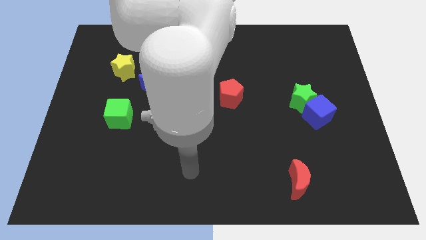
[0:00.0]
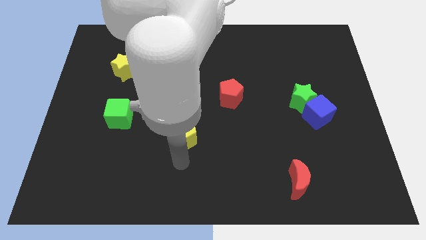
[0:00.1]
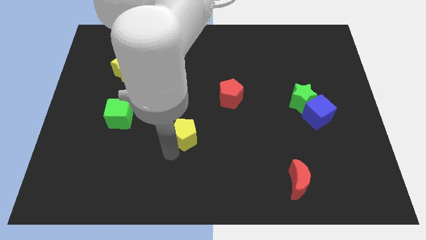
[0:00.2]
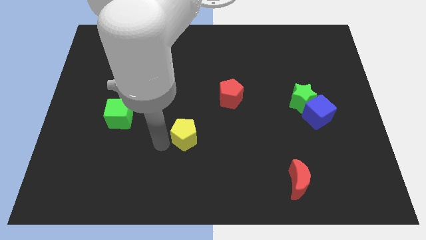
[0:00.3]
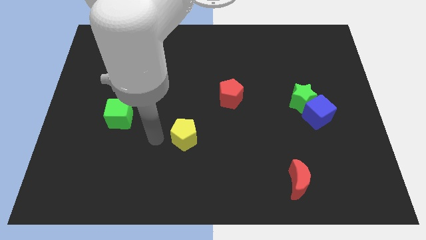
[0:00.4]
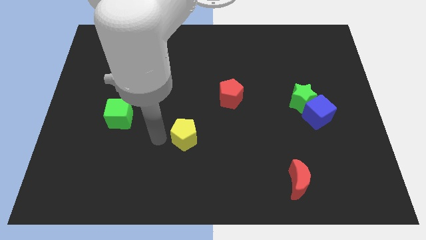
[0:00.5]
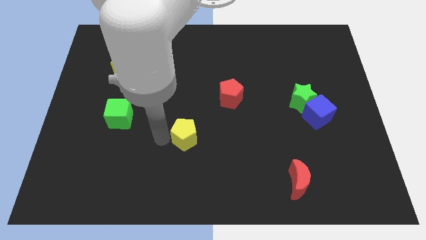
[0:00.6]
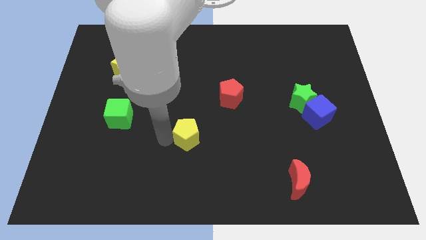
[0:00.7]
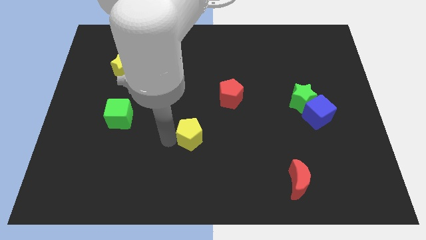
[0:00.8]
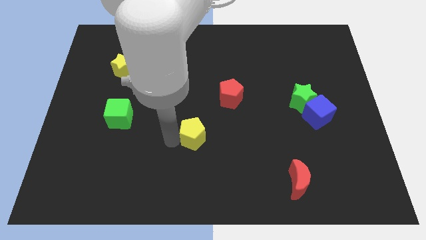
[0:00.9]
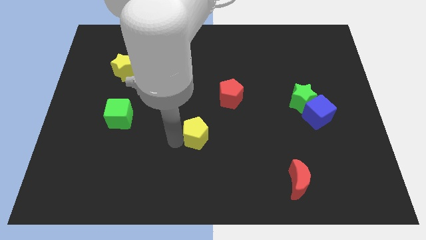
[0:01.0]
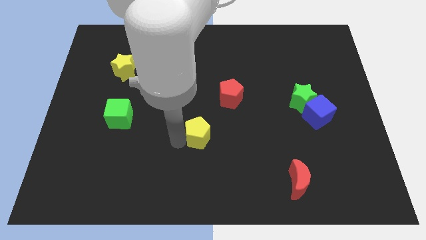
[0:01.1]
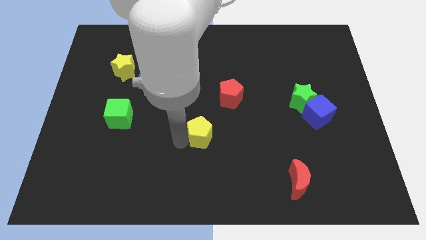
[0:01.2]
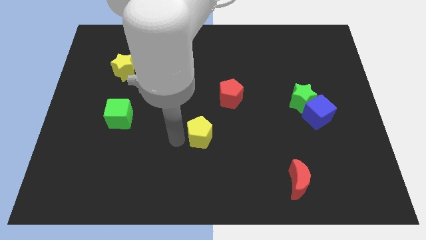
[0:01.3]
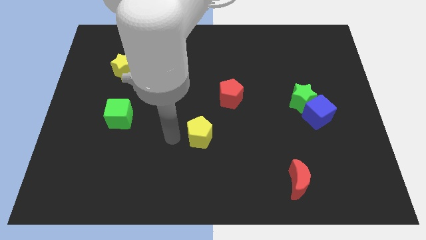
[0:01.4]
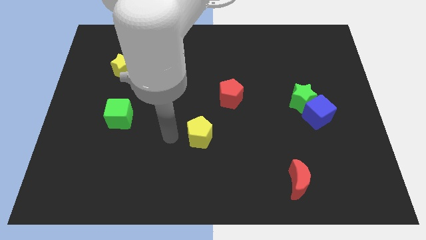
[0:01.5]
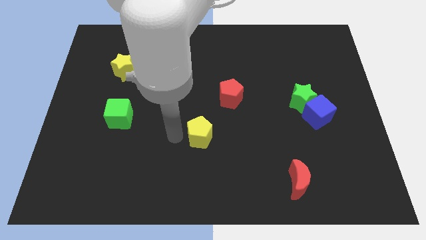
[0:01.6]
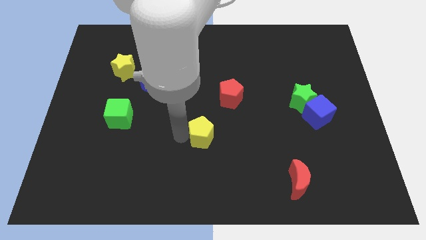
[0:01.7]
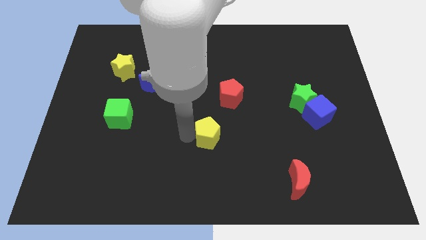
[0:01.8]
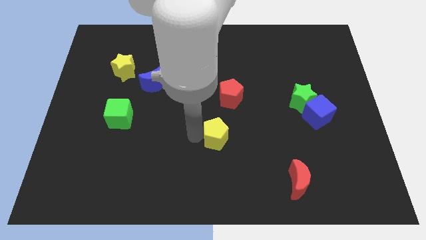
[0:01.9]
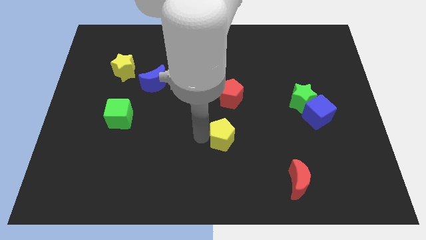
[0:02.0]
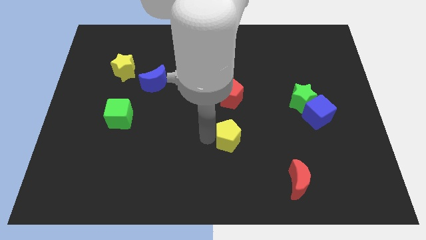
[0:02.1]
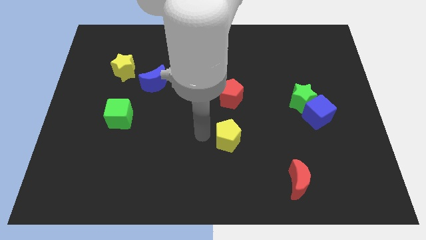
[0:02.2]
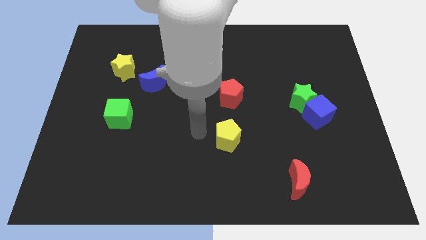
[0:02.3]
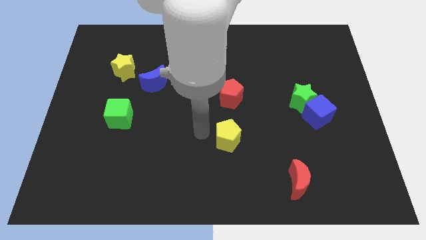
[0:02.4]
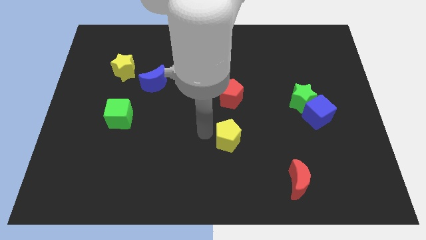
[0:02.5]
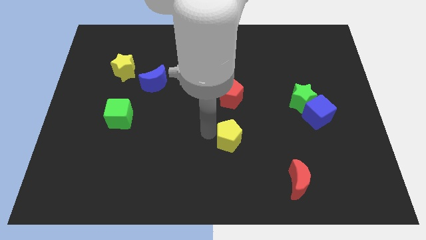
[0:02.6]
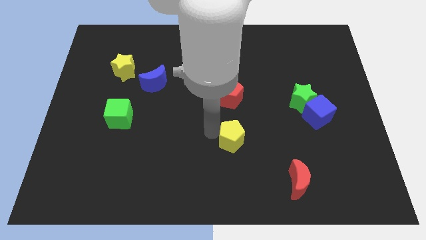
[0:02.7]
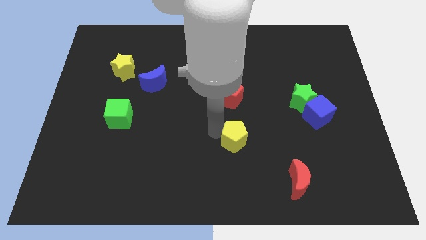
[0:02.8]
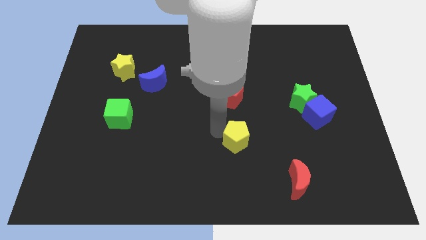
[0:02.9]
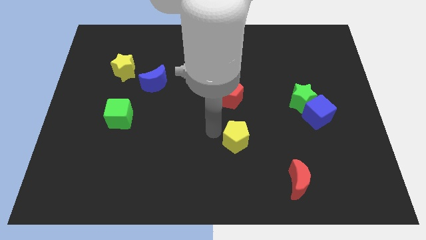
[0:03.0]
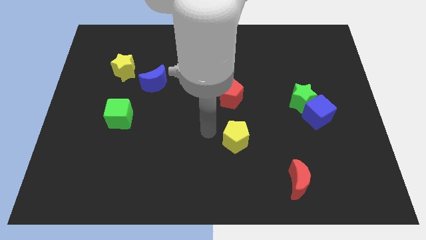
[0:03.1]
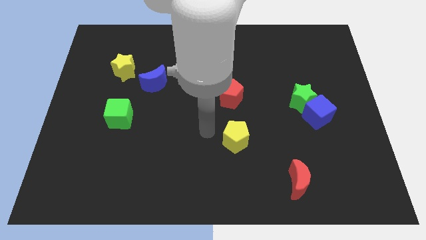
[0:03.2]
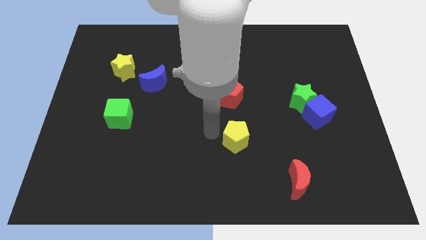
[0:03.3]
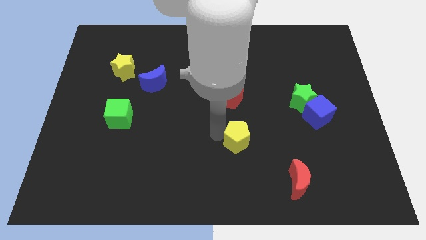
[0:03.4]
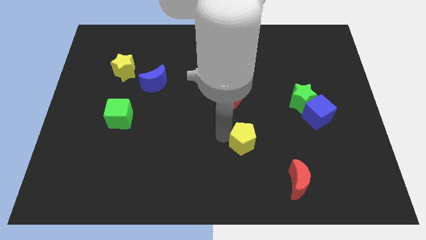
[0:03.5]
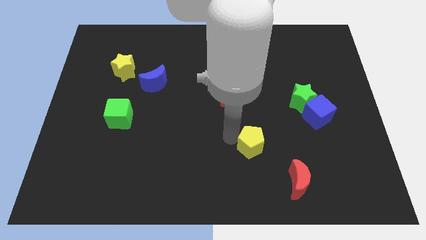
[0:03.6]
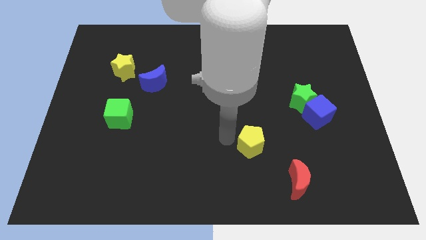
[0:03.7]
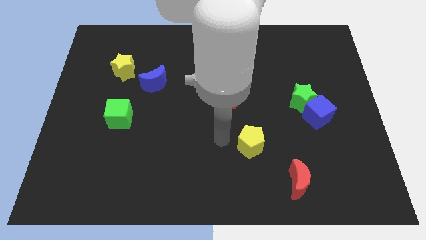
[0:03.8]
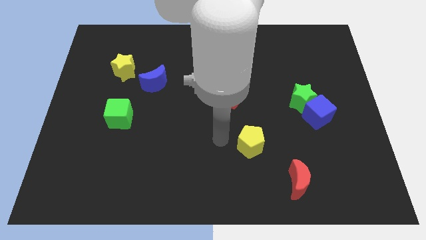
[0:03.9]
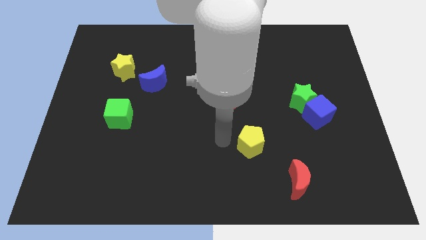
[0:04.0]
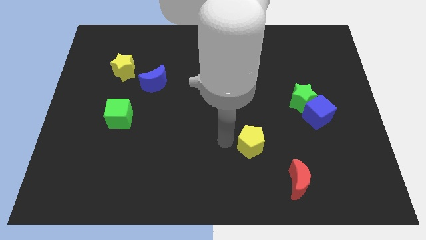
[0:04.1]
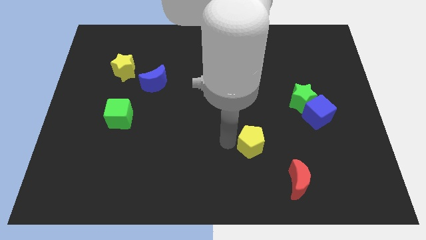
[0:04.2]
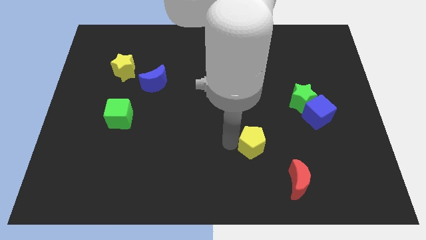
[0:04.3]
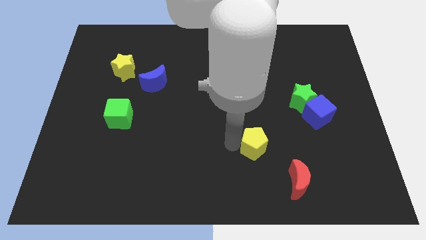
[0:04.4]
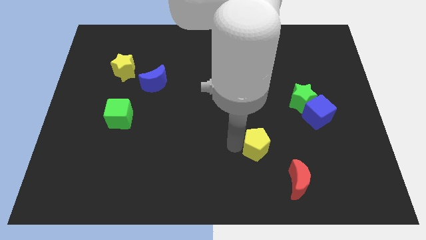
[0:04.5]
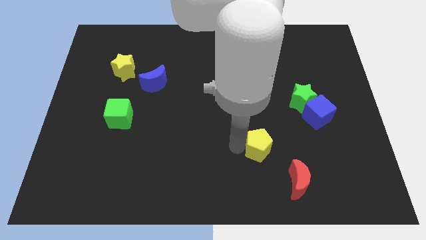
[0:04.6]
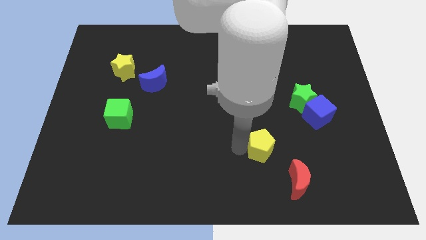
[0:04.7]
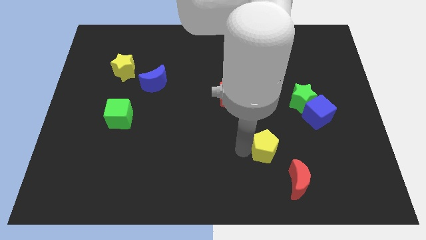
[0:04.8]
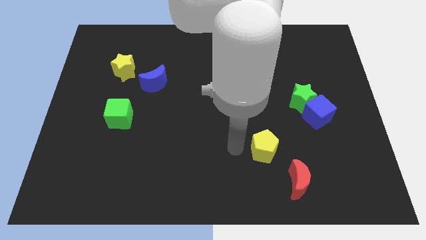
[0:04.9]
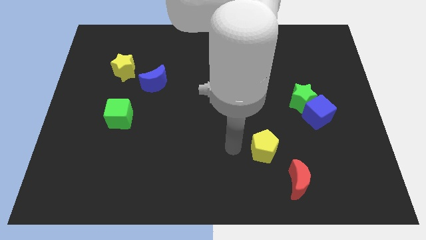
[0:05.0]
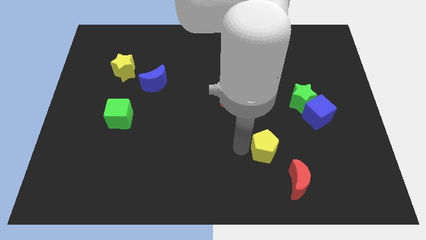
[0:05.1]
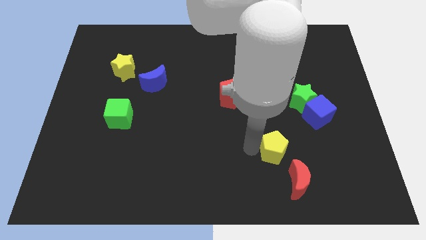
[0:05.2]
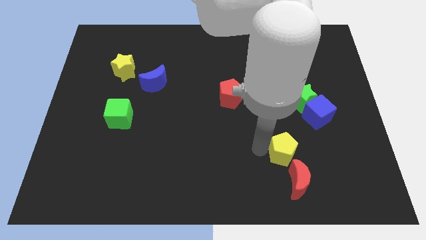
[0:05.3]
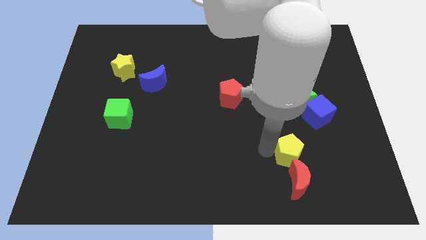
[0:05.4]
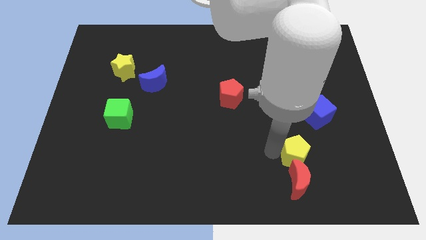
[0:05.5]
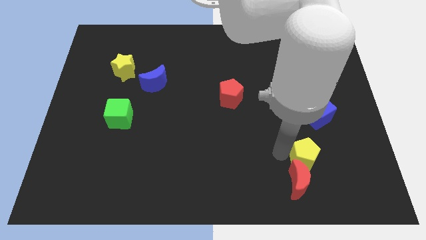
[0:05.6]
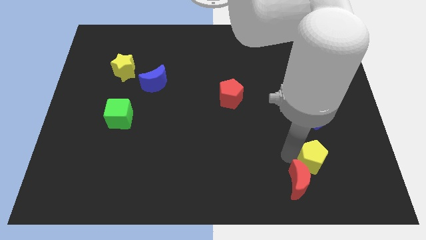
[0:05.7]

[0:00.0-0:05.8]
move the yellow pentagon below the blue cube

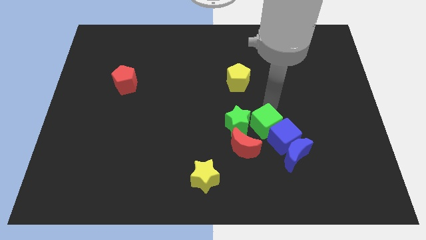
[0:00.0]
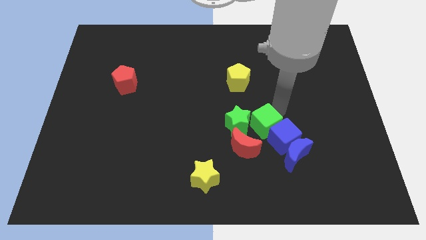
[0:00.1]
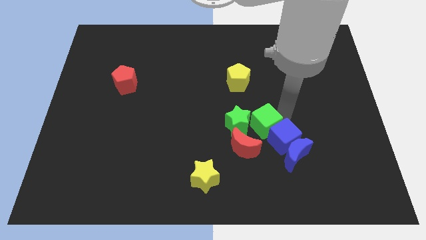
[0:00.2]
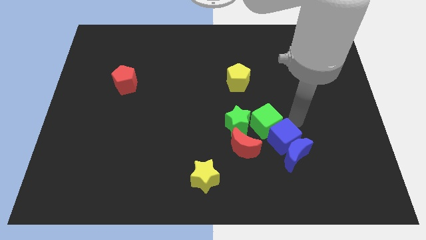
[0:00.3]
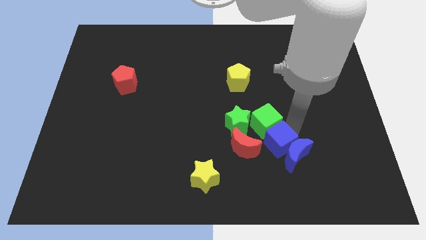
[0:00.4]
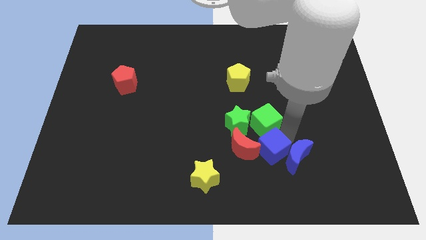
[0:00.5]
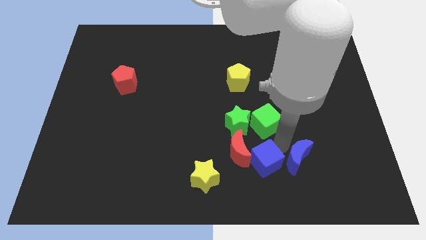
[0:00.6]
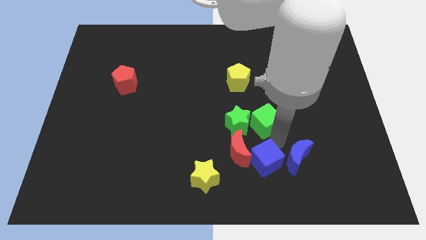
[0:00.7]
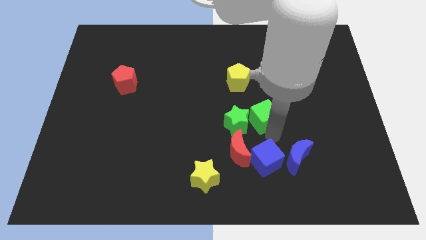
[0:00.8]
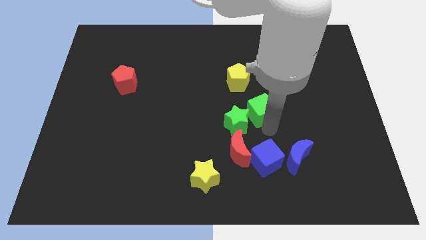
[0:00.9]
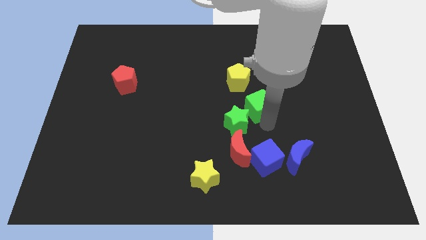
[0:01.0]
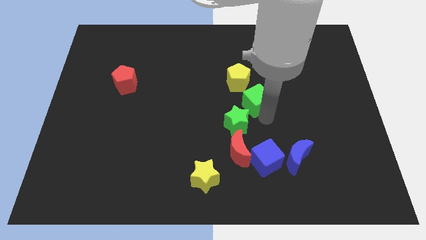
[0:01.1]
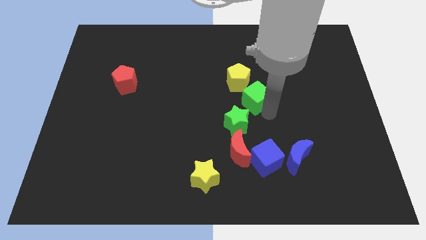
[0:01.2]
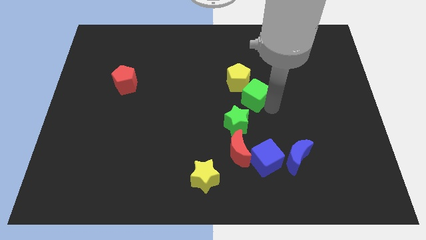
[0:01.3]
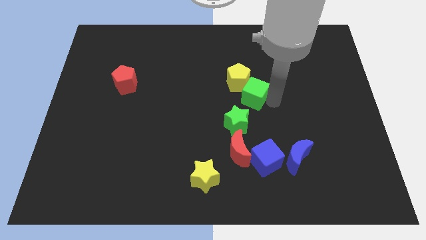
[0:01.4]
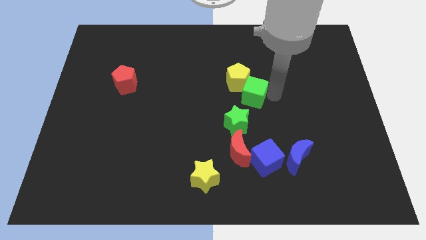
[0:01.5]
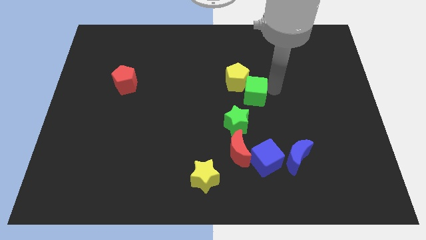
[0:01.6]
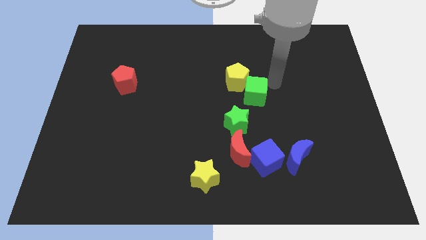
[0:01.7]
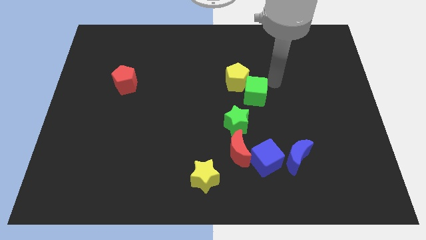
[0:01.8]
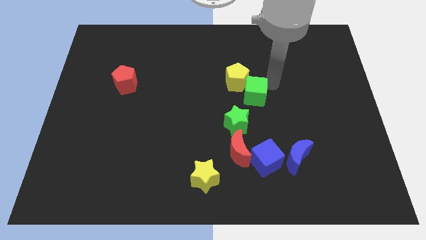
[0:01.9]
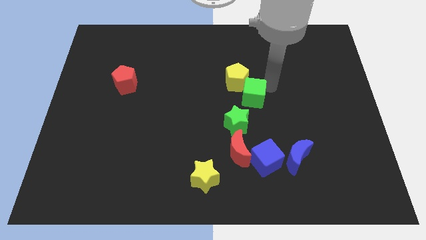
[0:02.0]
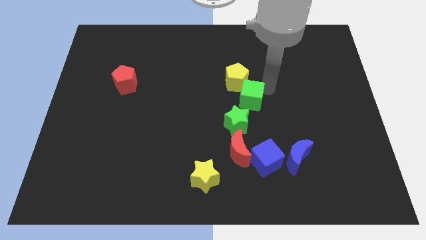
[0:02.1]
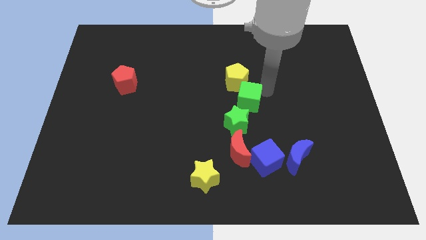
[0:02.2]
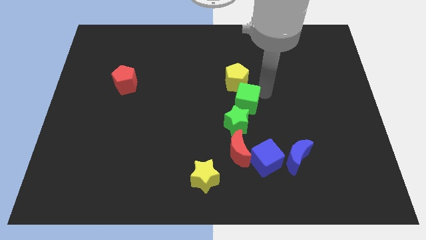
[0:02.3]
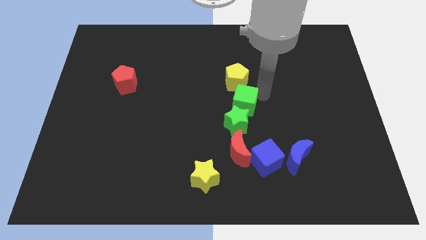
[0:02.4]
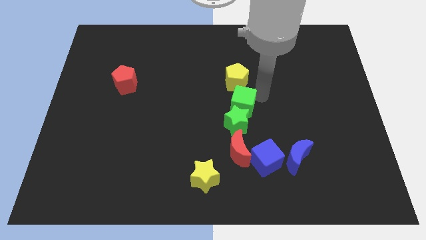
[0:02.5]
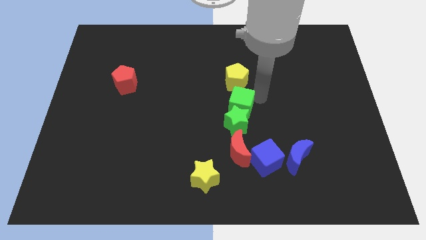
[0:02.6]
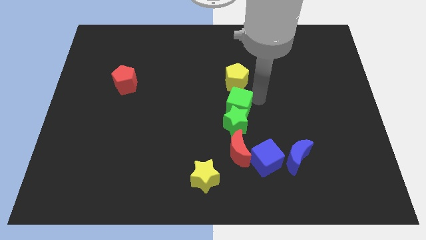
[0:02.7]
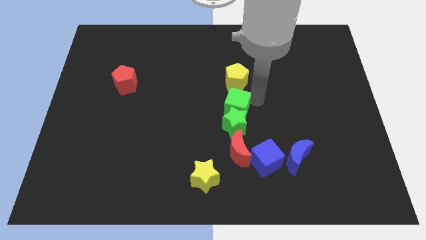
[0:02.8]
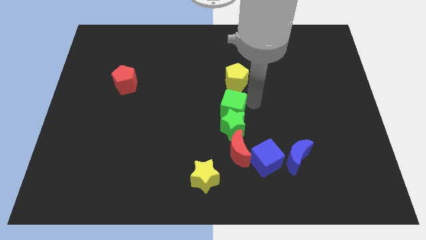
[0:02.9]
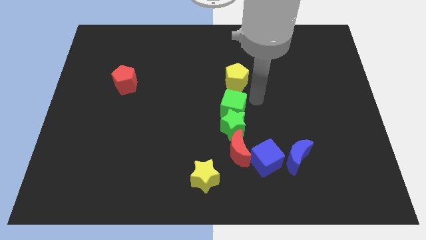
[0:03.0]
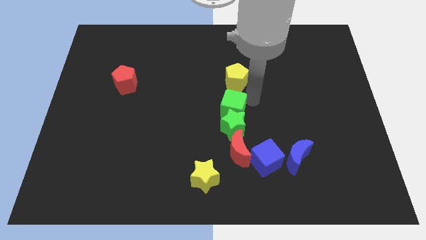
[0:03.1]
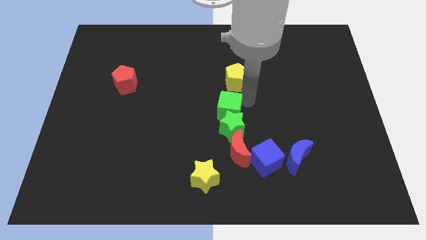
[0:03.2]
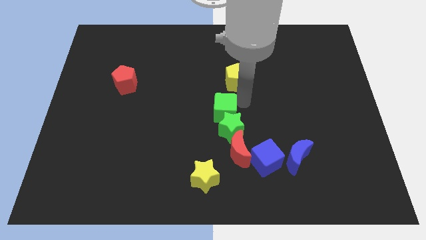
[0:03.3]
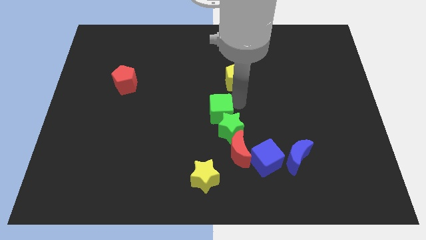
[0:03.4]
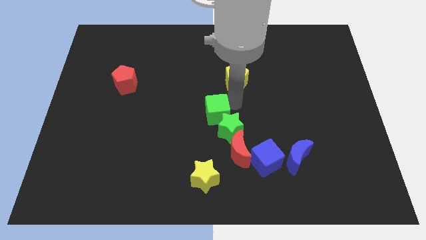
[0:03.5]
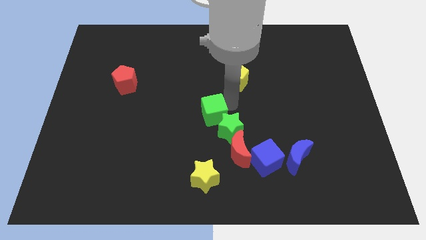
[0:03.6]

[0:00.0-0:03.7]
push the green cube left of the green star
